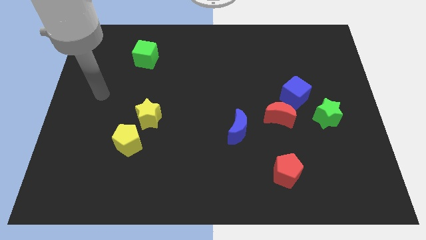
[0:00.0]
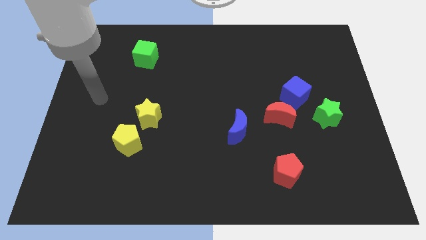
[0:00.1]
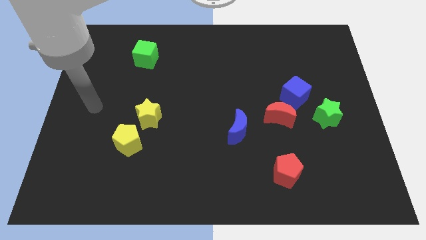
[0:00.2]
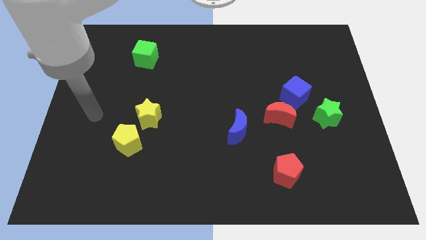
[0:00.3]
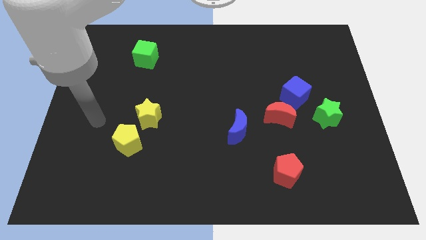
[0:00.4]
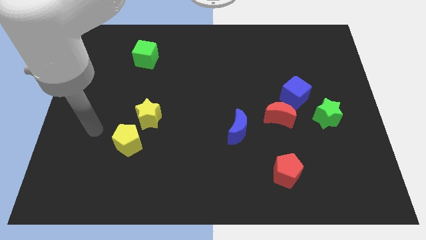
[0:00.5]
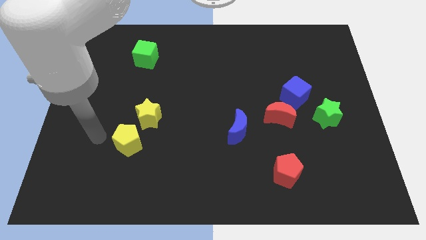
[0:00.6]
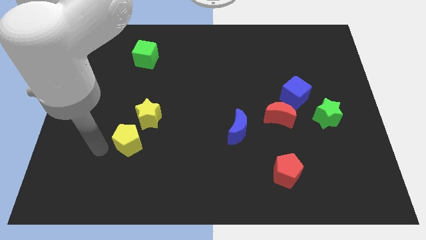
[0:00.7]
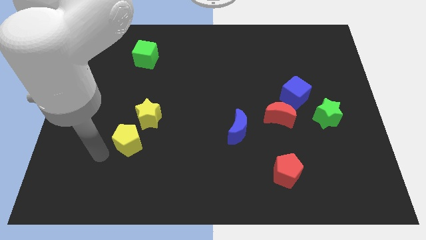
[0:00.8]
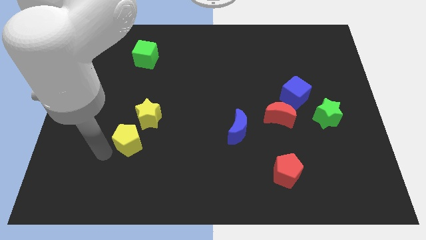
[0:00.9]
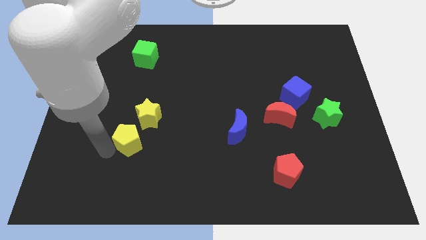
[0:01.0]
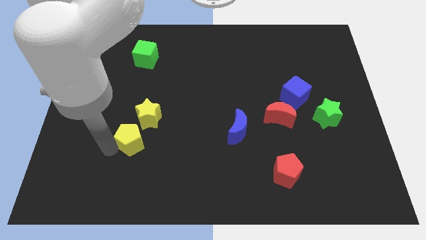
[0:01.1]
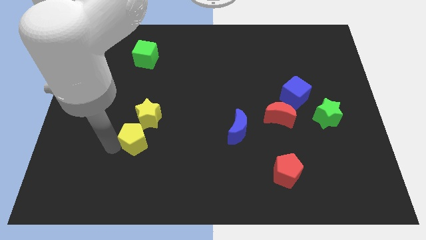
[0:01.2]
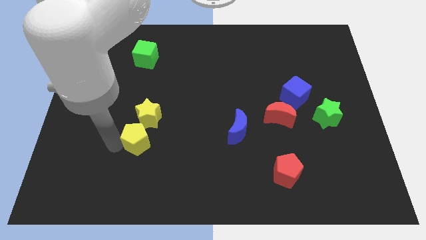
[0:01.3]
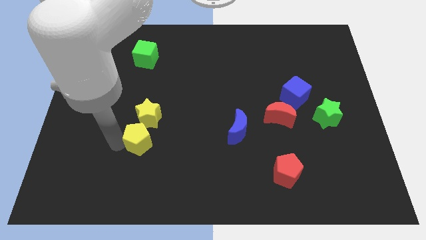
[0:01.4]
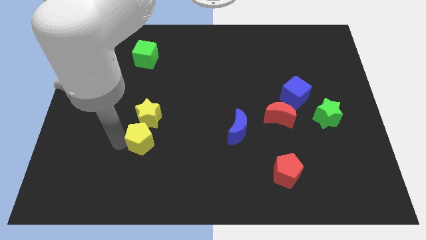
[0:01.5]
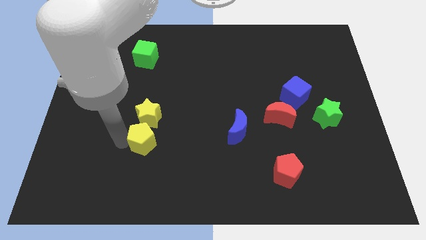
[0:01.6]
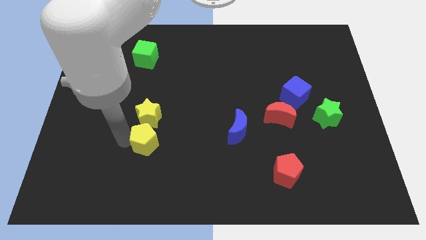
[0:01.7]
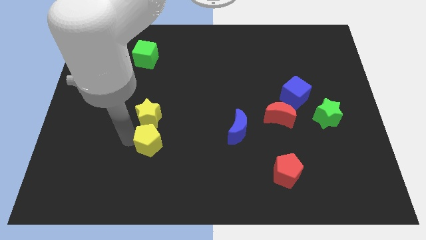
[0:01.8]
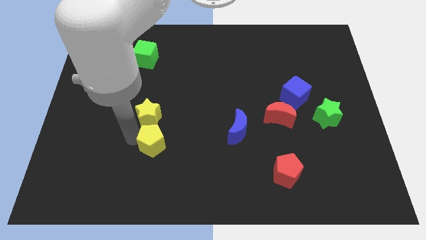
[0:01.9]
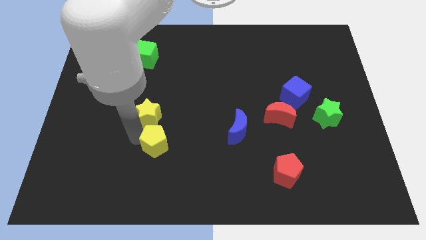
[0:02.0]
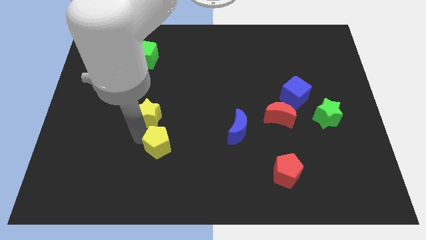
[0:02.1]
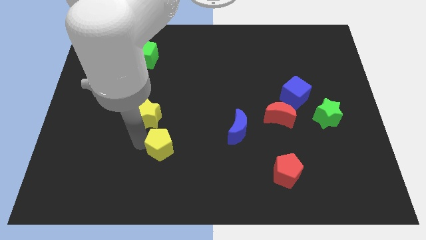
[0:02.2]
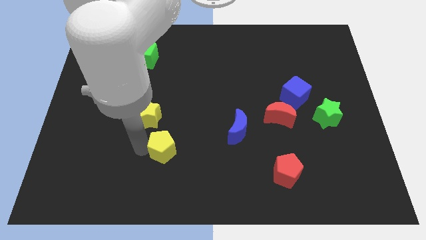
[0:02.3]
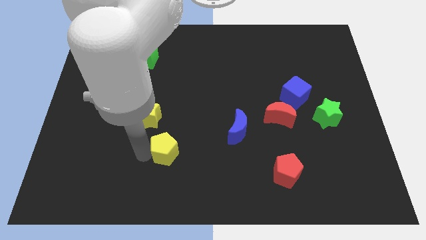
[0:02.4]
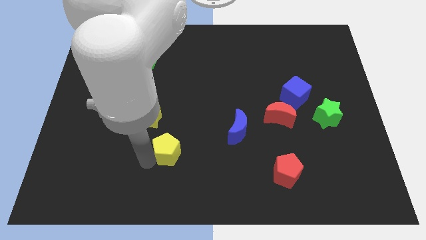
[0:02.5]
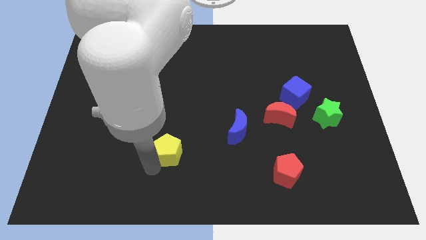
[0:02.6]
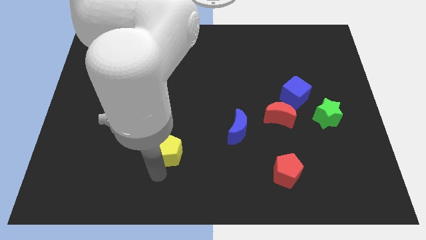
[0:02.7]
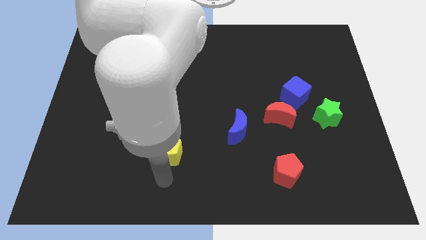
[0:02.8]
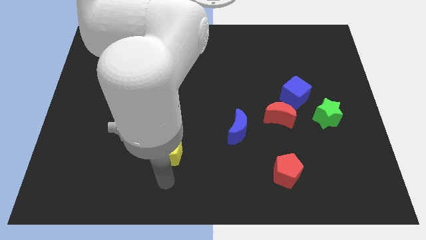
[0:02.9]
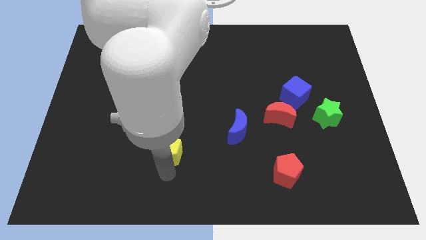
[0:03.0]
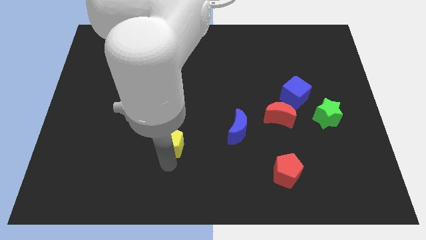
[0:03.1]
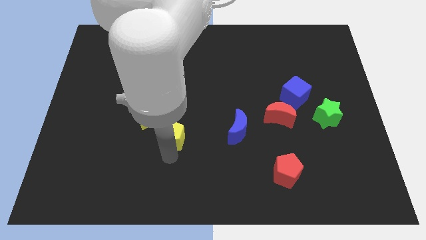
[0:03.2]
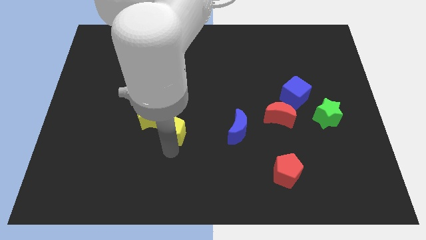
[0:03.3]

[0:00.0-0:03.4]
slightly move the yellow pentagon upwards and then to the right

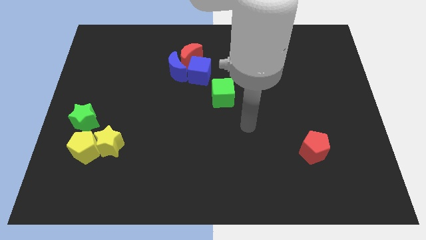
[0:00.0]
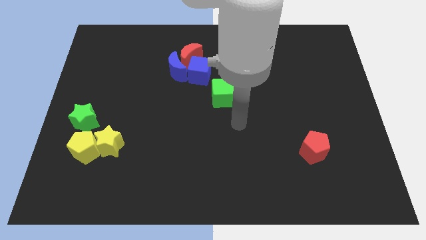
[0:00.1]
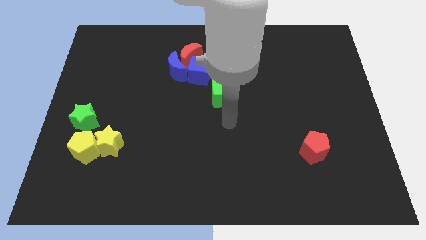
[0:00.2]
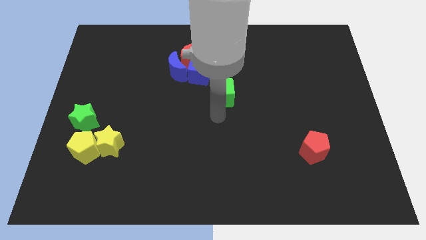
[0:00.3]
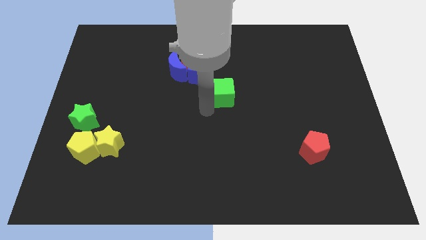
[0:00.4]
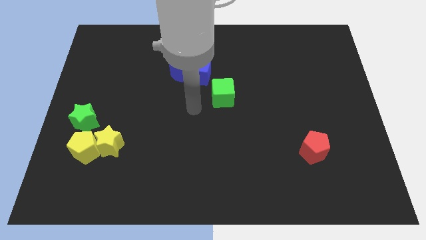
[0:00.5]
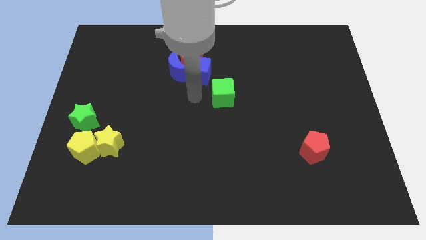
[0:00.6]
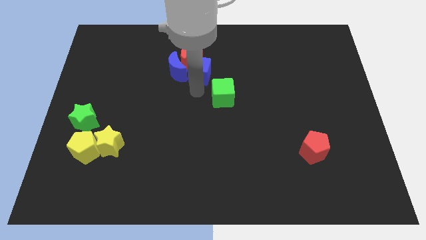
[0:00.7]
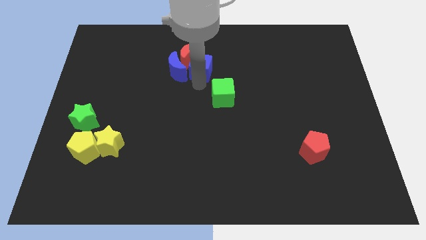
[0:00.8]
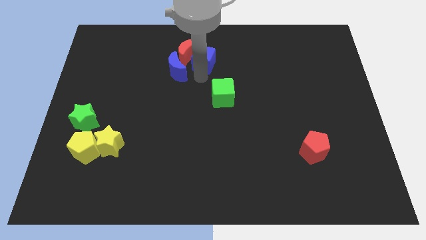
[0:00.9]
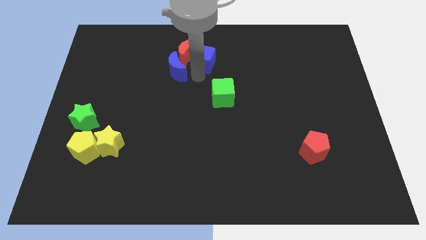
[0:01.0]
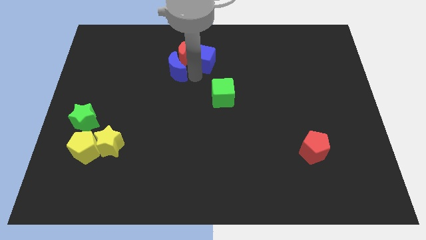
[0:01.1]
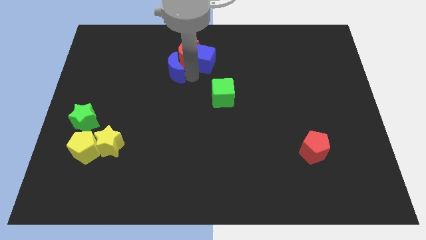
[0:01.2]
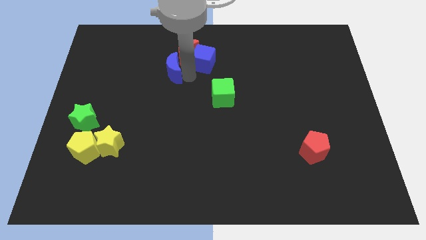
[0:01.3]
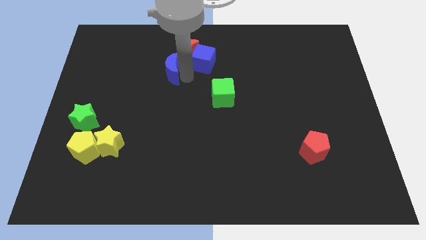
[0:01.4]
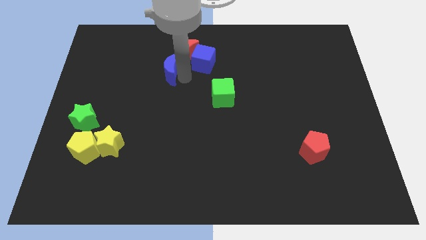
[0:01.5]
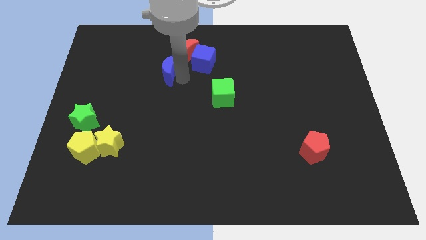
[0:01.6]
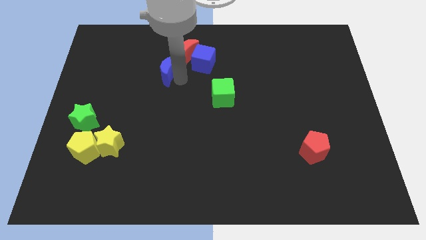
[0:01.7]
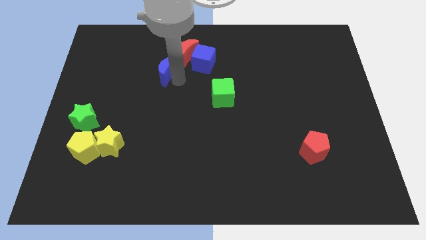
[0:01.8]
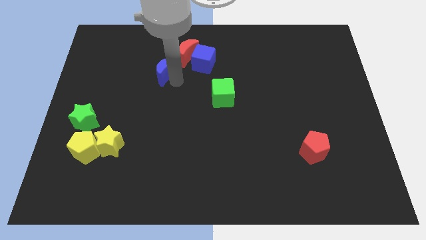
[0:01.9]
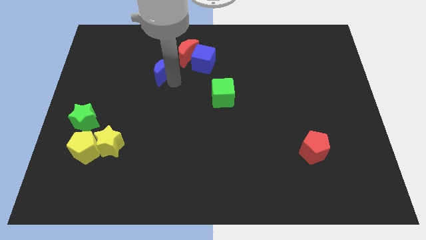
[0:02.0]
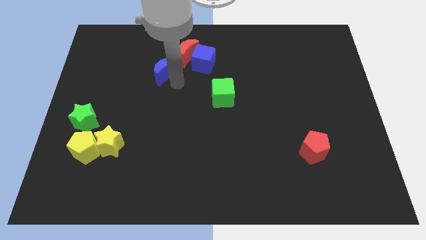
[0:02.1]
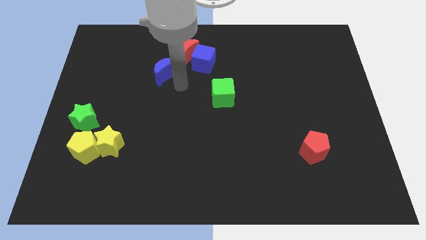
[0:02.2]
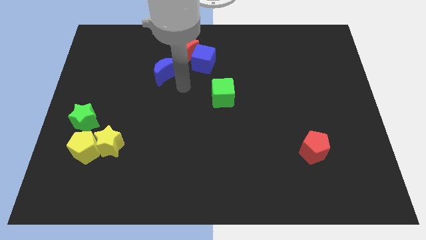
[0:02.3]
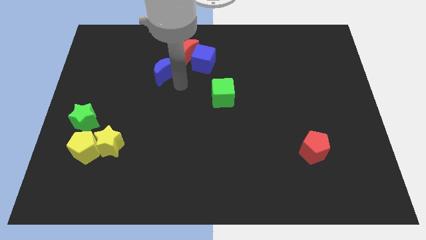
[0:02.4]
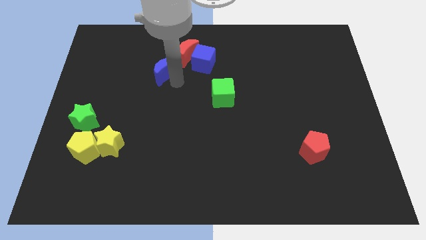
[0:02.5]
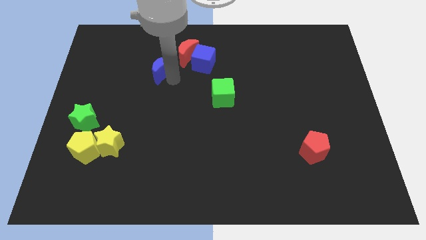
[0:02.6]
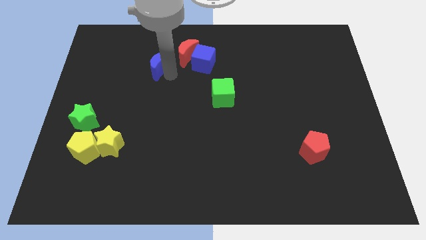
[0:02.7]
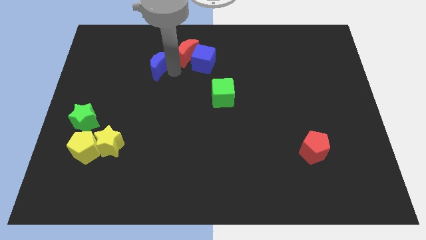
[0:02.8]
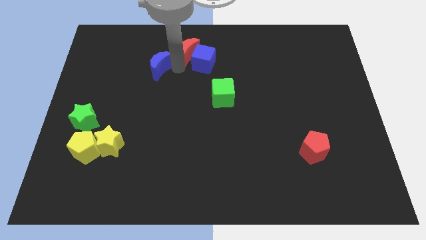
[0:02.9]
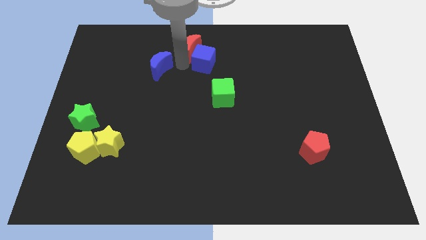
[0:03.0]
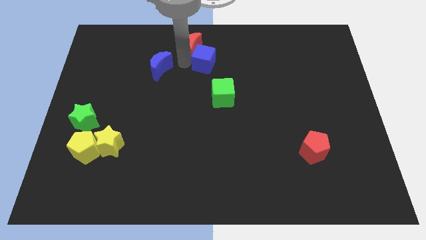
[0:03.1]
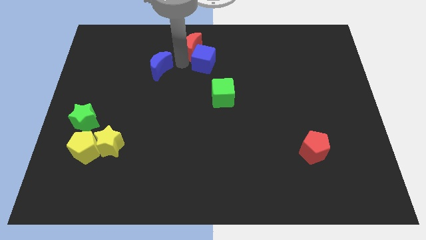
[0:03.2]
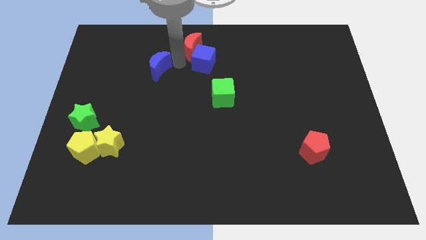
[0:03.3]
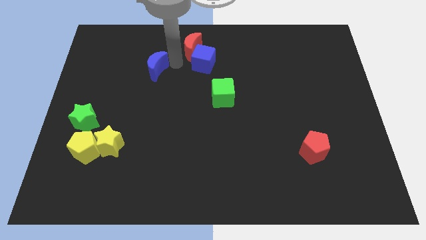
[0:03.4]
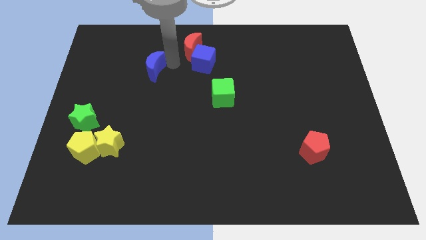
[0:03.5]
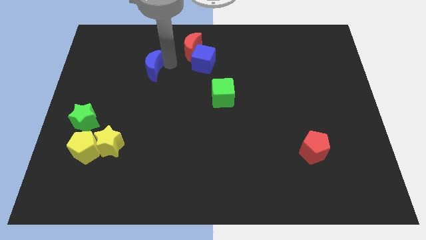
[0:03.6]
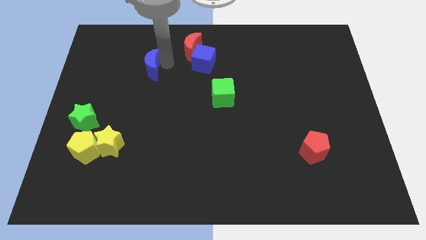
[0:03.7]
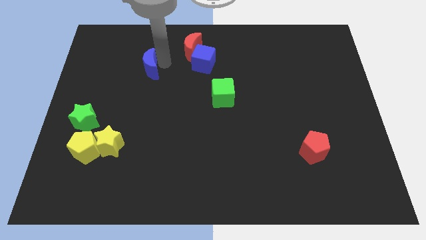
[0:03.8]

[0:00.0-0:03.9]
move the blue moon a bit left

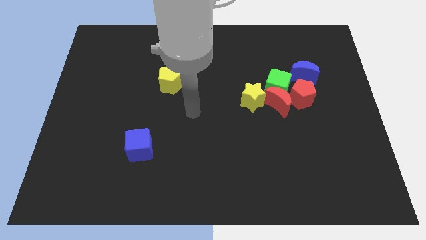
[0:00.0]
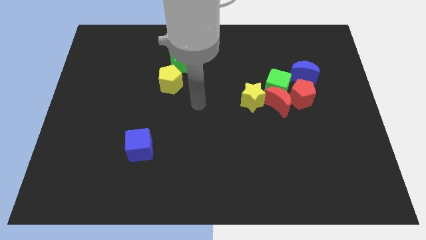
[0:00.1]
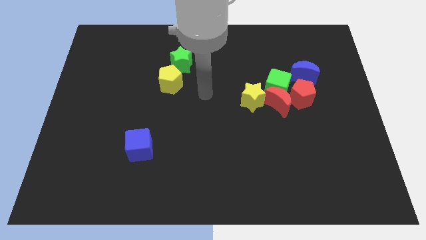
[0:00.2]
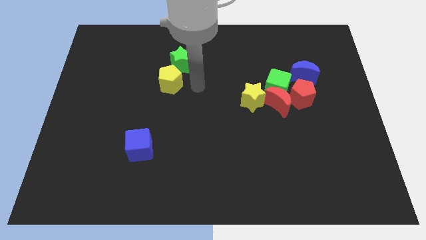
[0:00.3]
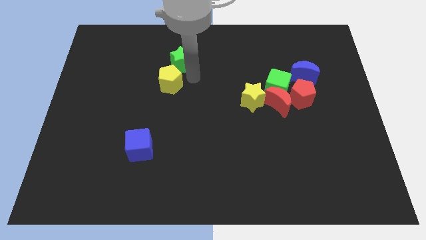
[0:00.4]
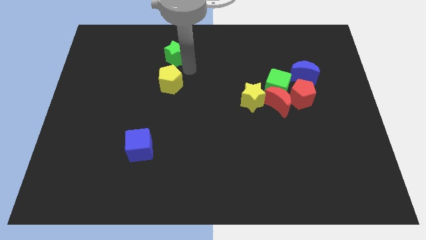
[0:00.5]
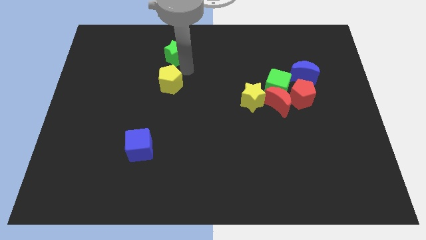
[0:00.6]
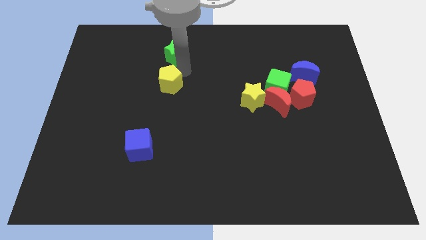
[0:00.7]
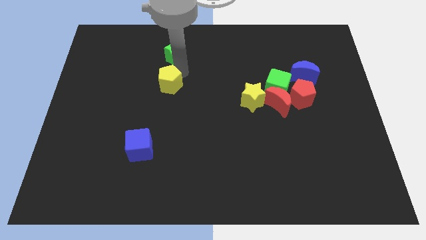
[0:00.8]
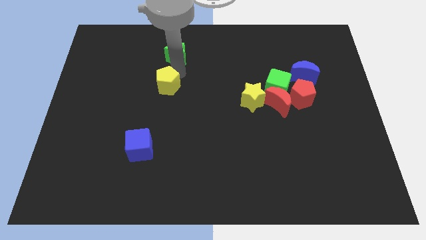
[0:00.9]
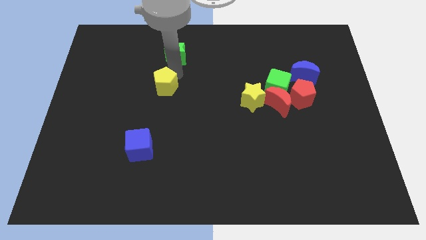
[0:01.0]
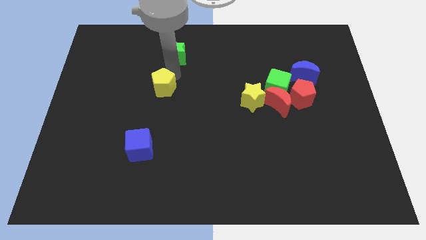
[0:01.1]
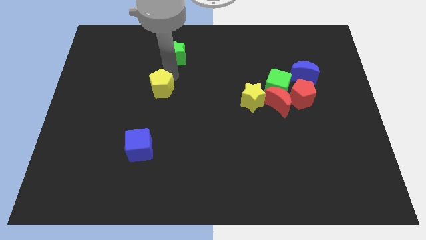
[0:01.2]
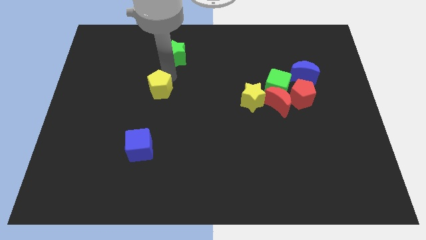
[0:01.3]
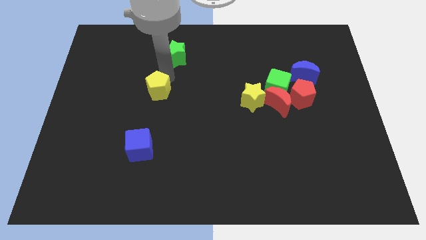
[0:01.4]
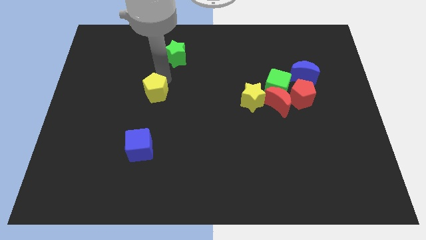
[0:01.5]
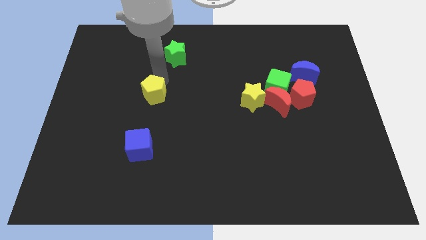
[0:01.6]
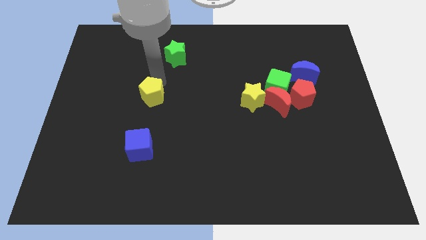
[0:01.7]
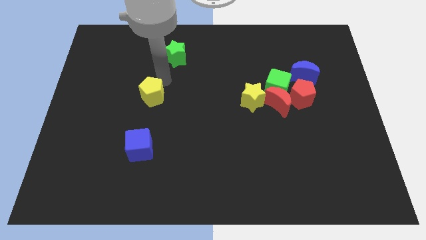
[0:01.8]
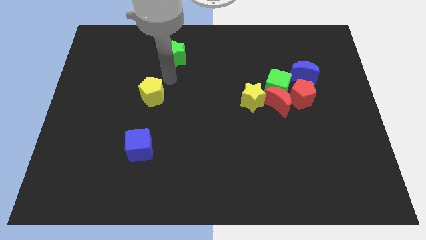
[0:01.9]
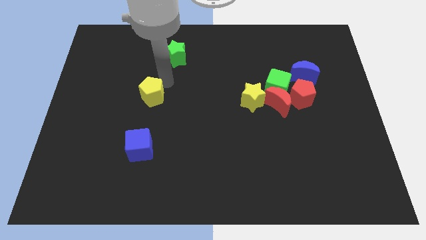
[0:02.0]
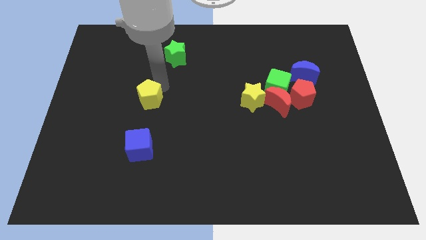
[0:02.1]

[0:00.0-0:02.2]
slightly move the yellow pentagon down and left diagonally
